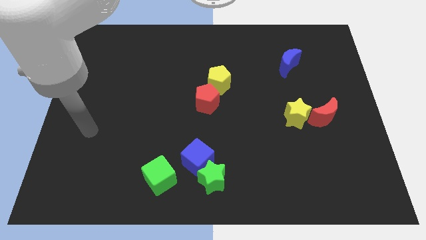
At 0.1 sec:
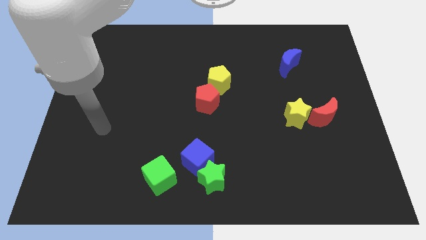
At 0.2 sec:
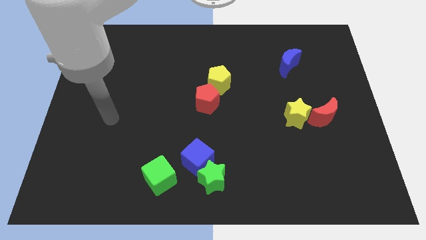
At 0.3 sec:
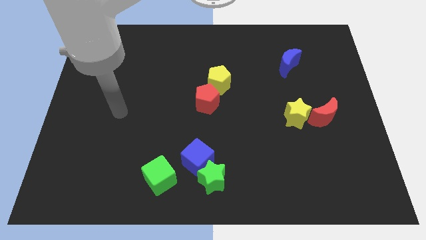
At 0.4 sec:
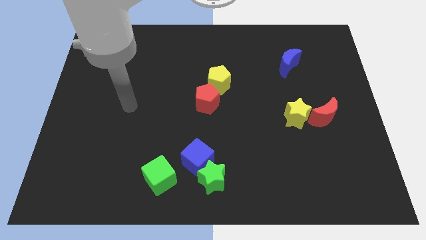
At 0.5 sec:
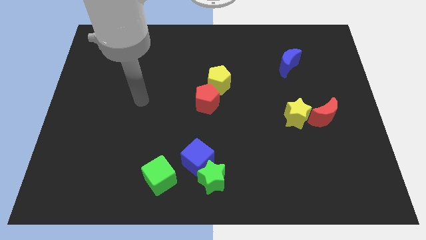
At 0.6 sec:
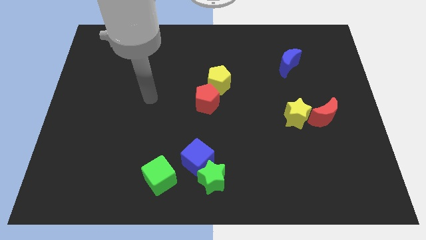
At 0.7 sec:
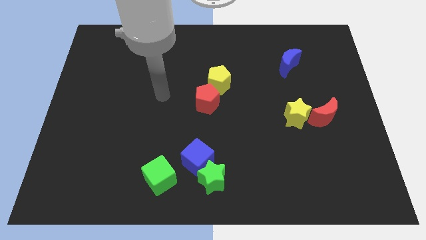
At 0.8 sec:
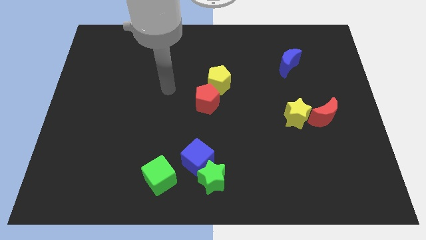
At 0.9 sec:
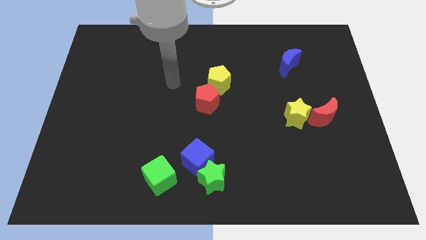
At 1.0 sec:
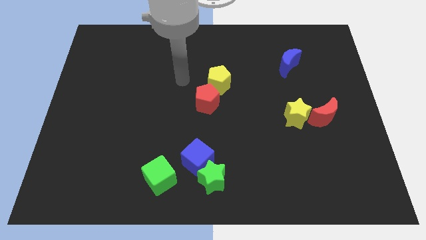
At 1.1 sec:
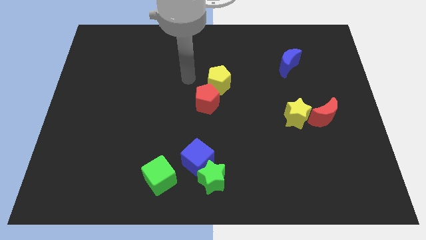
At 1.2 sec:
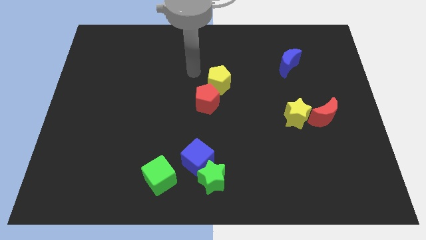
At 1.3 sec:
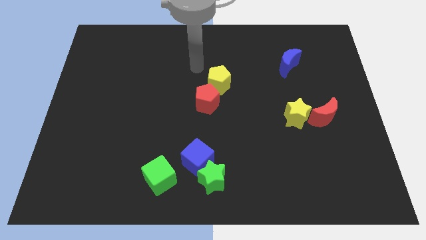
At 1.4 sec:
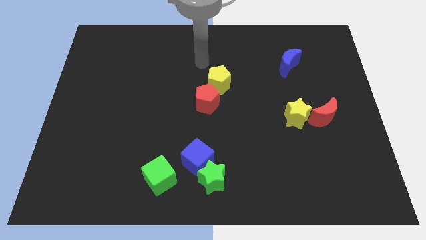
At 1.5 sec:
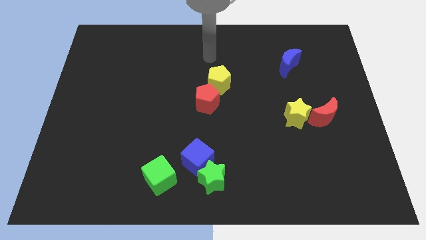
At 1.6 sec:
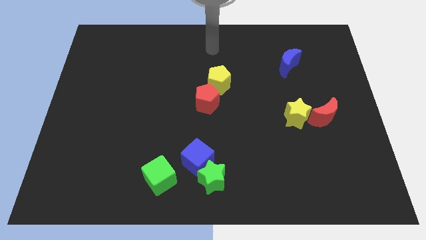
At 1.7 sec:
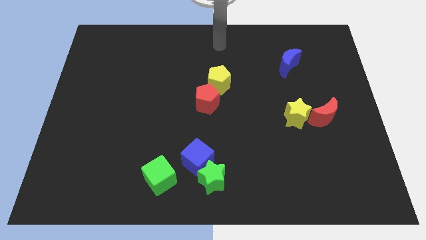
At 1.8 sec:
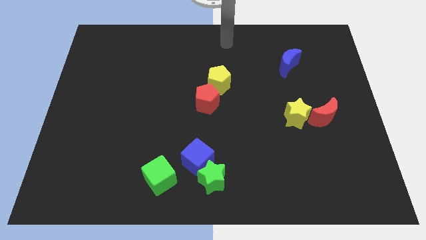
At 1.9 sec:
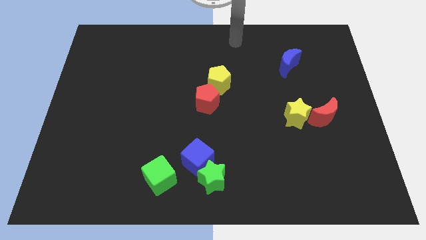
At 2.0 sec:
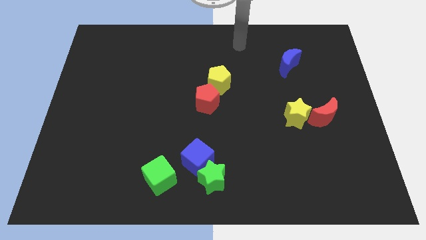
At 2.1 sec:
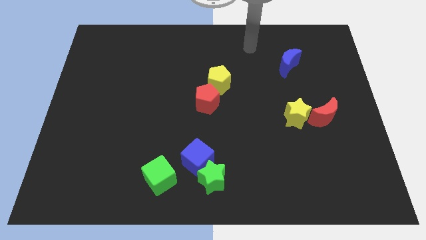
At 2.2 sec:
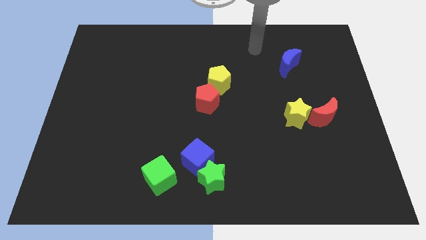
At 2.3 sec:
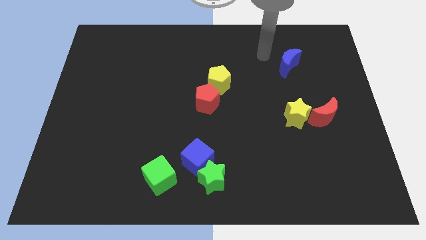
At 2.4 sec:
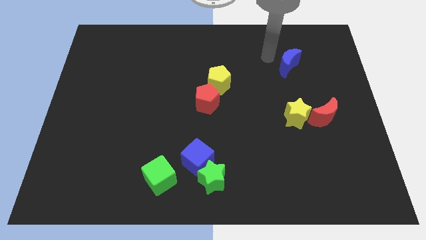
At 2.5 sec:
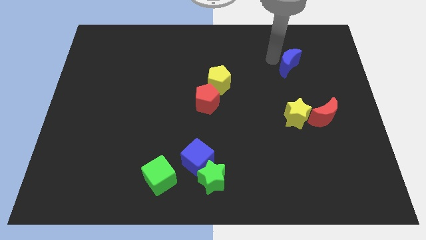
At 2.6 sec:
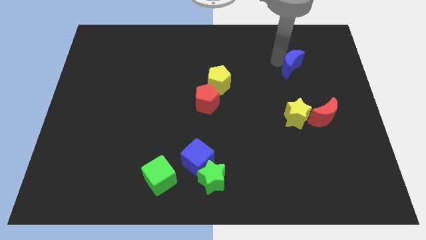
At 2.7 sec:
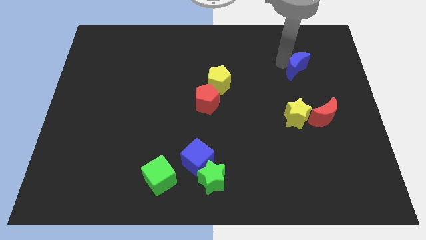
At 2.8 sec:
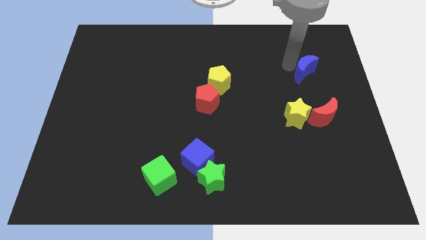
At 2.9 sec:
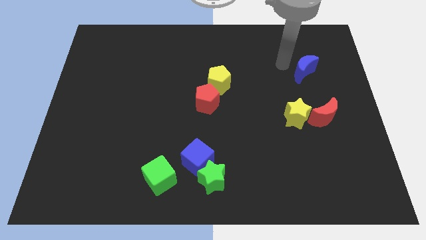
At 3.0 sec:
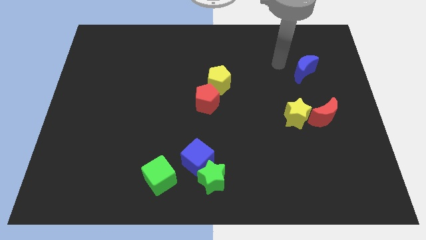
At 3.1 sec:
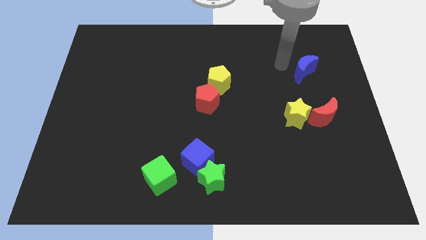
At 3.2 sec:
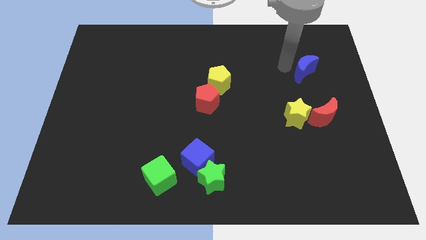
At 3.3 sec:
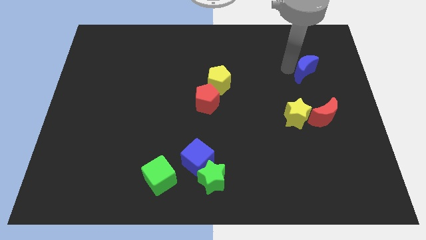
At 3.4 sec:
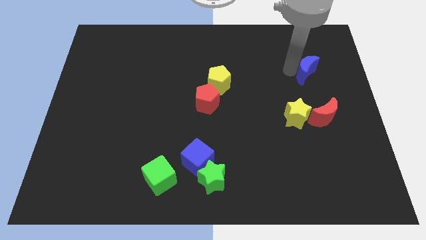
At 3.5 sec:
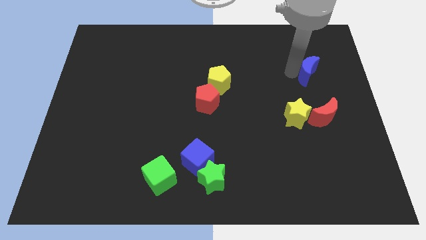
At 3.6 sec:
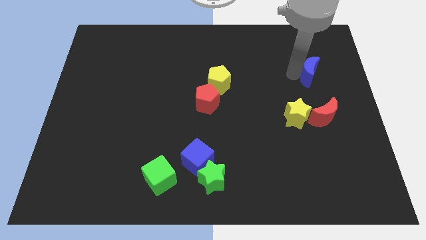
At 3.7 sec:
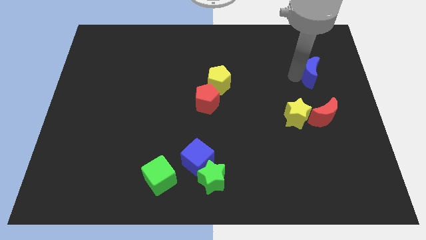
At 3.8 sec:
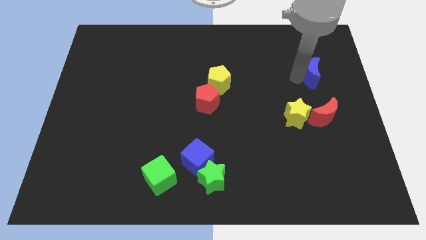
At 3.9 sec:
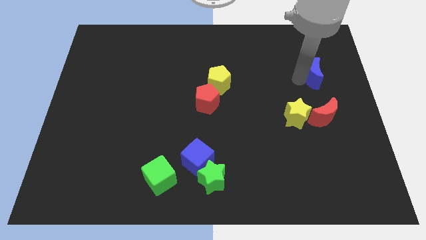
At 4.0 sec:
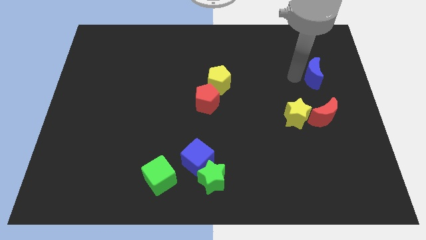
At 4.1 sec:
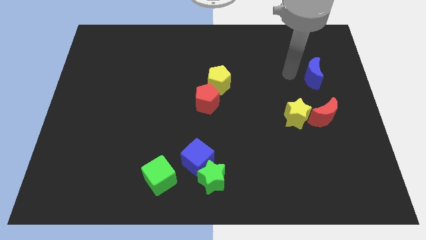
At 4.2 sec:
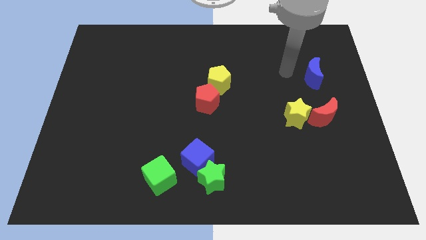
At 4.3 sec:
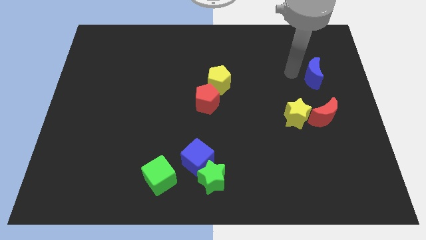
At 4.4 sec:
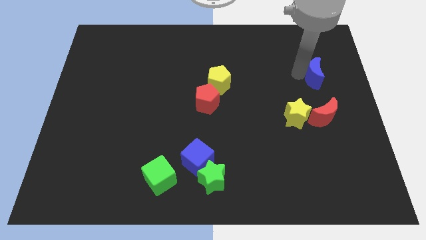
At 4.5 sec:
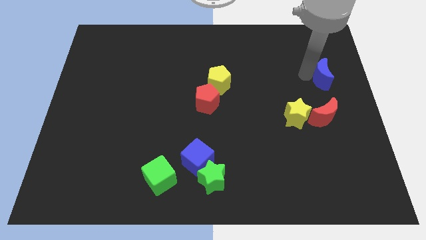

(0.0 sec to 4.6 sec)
put the blue moon to the right side of the board

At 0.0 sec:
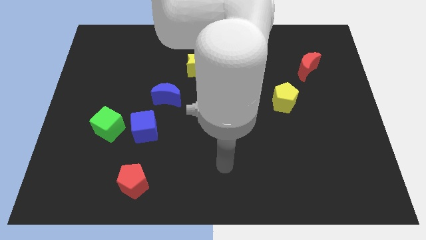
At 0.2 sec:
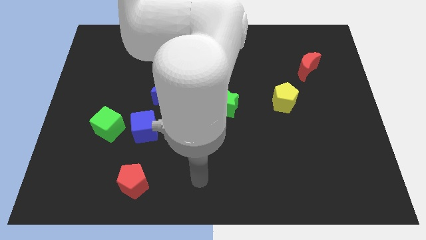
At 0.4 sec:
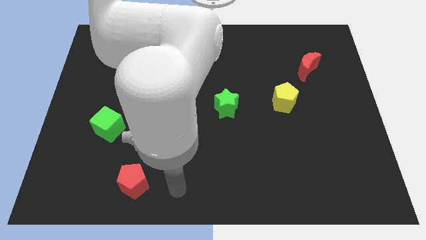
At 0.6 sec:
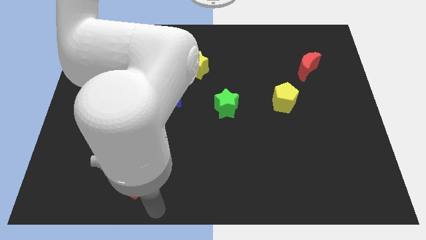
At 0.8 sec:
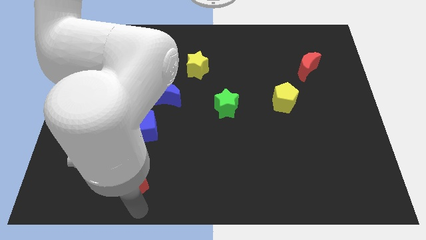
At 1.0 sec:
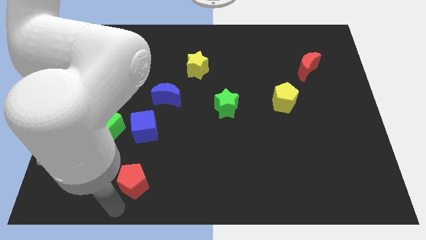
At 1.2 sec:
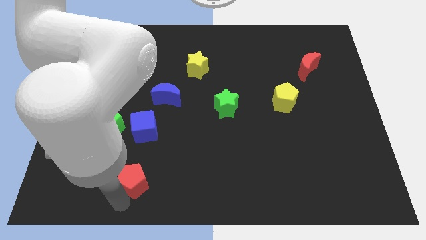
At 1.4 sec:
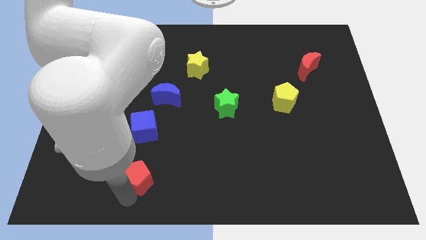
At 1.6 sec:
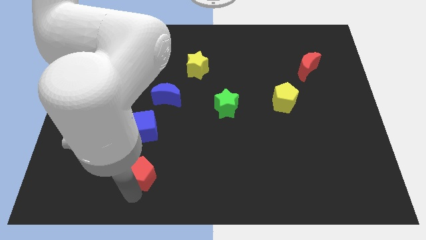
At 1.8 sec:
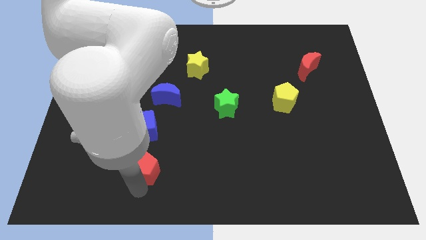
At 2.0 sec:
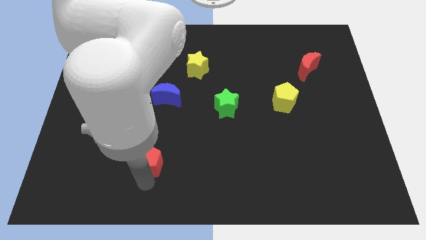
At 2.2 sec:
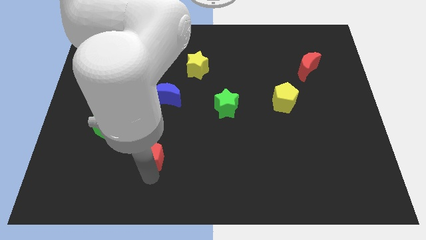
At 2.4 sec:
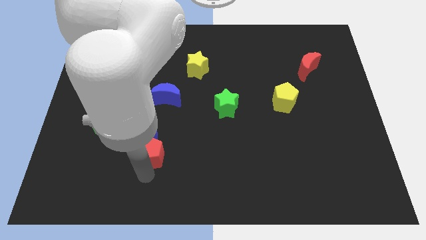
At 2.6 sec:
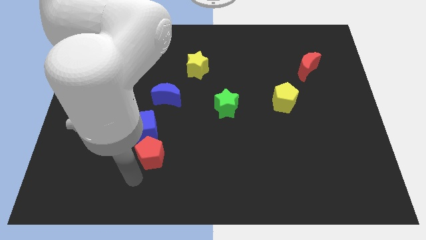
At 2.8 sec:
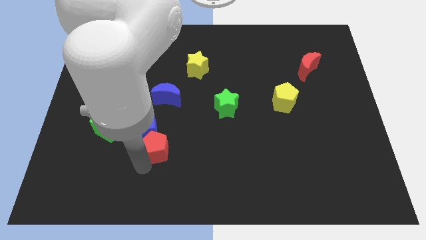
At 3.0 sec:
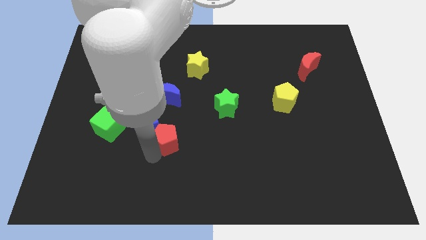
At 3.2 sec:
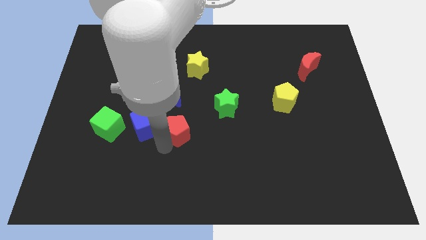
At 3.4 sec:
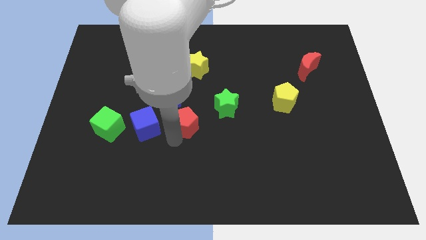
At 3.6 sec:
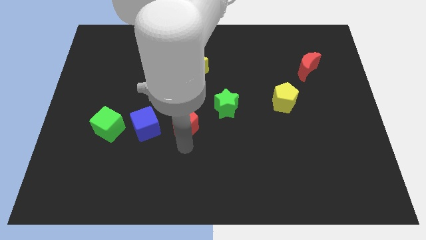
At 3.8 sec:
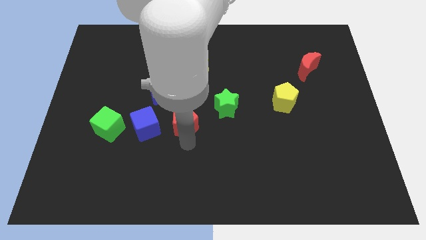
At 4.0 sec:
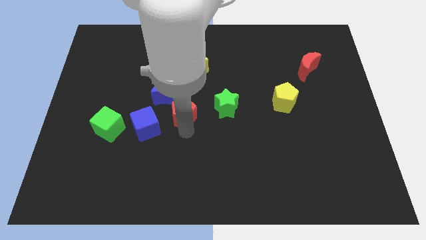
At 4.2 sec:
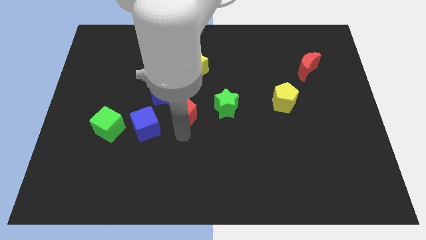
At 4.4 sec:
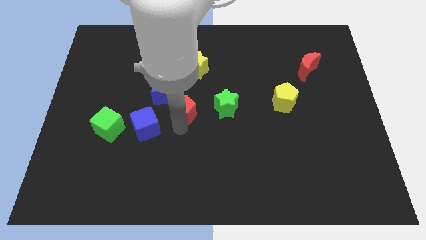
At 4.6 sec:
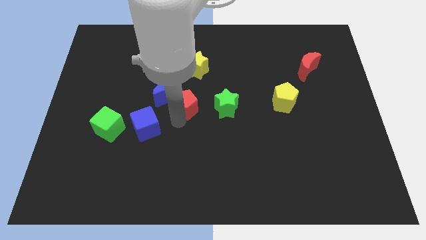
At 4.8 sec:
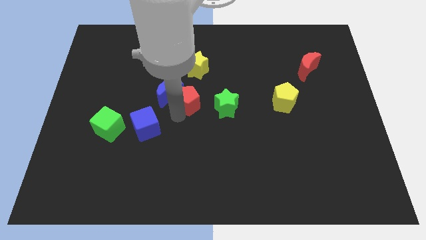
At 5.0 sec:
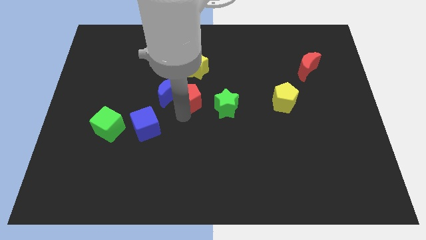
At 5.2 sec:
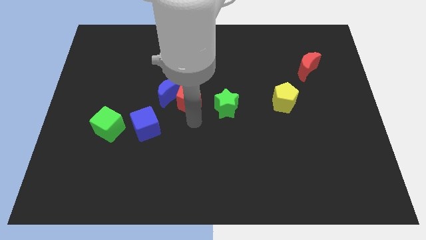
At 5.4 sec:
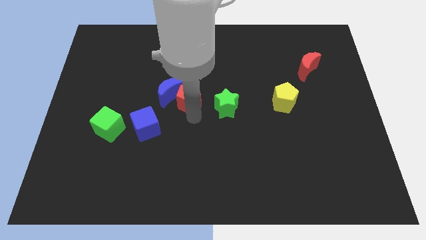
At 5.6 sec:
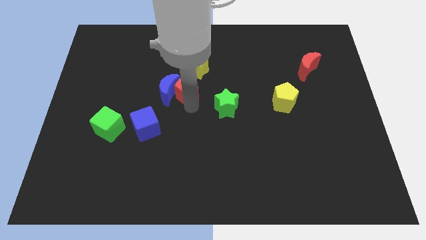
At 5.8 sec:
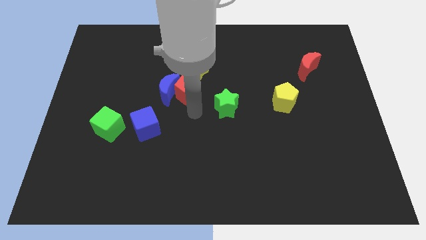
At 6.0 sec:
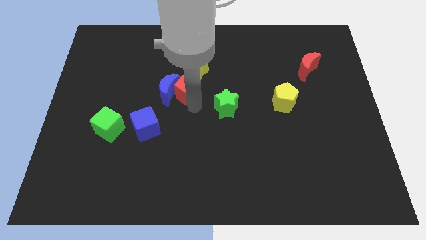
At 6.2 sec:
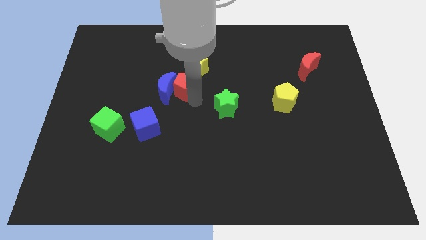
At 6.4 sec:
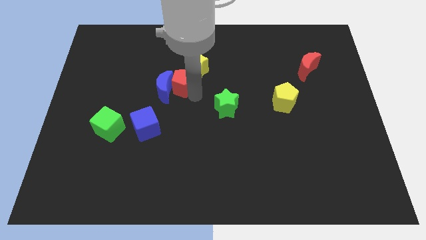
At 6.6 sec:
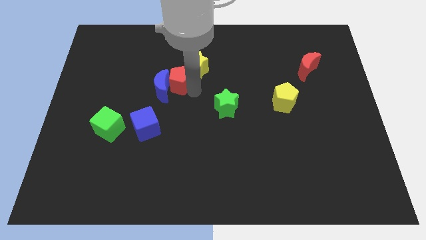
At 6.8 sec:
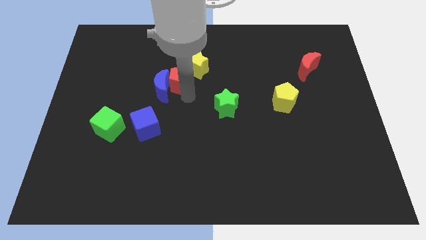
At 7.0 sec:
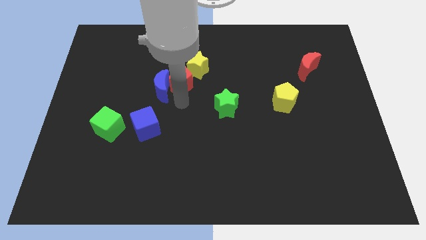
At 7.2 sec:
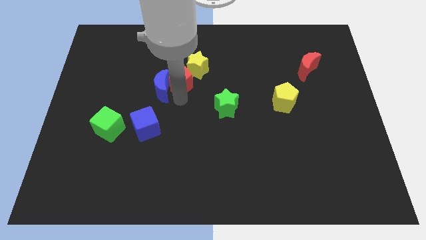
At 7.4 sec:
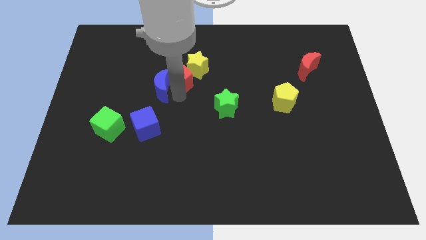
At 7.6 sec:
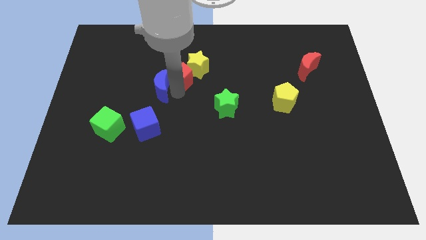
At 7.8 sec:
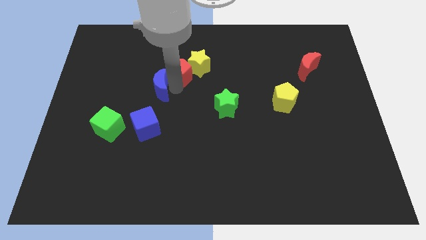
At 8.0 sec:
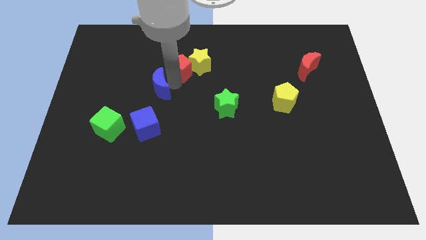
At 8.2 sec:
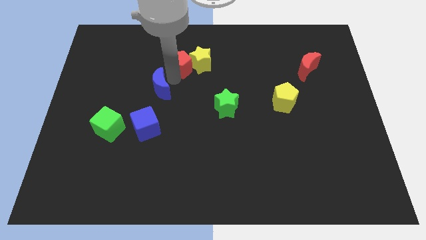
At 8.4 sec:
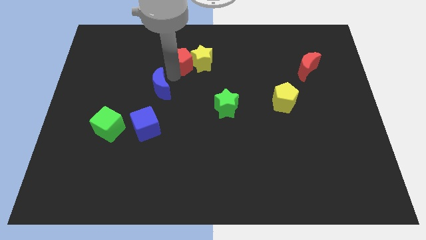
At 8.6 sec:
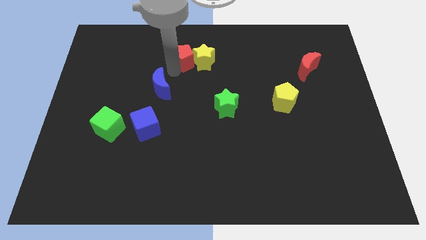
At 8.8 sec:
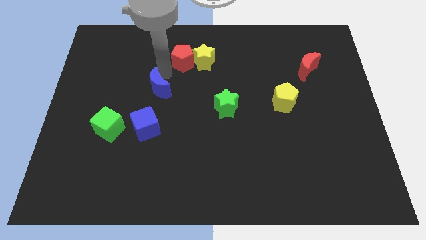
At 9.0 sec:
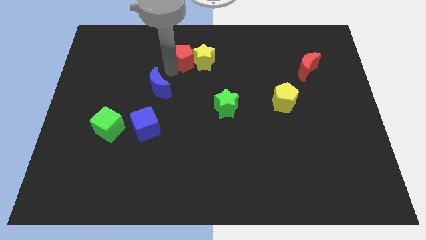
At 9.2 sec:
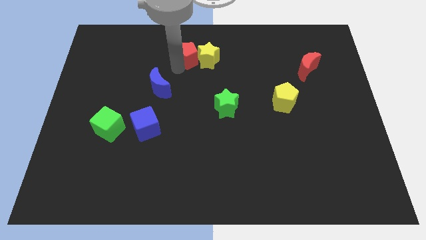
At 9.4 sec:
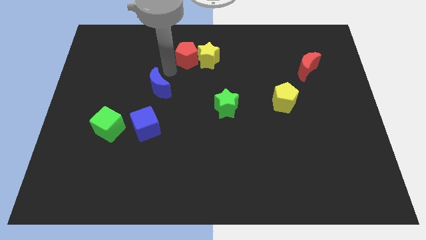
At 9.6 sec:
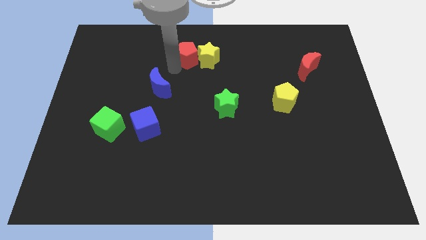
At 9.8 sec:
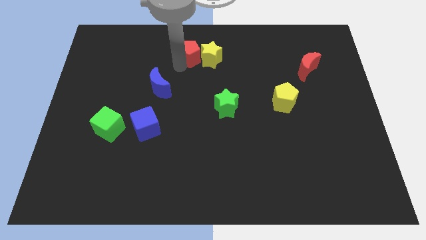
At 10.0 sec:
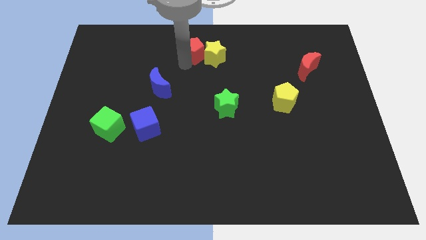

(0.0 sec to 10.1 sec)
put the red pentagon to the top
